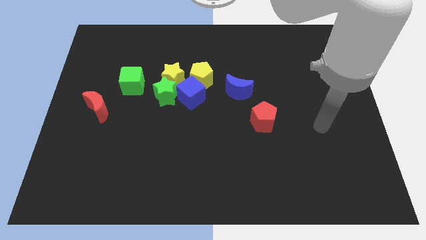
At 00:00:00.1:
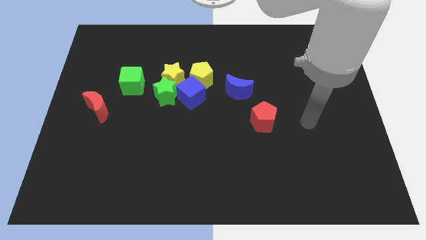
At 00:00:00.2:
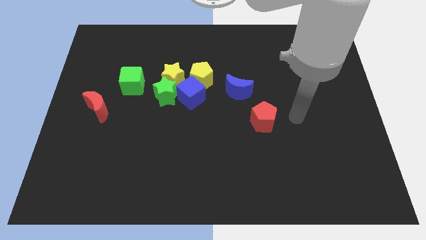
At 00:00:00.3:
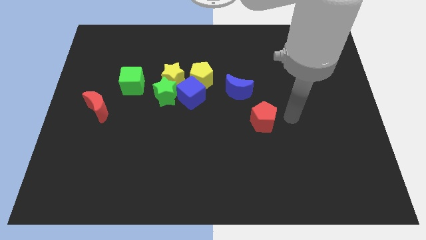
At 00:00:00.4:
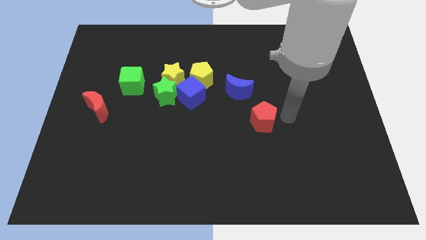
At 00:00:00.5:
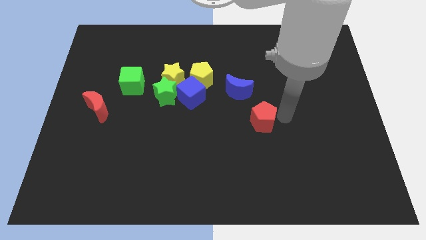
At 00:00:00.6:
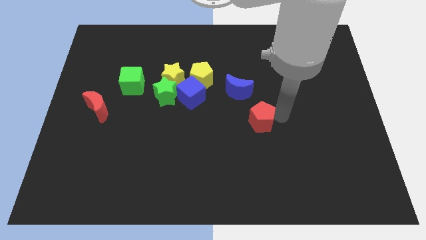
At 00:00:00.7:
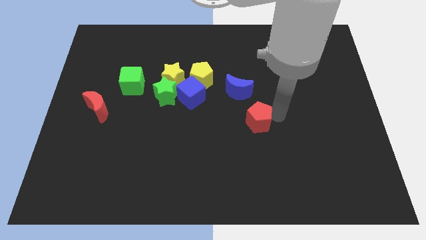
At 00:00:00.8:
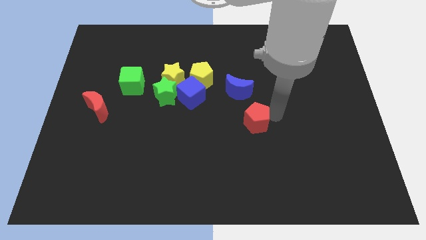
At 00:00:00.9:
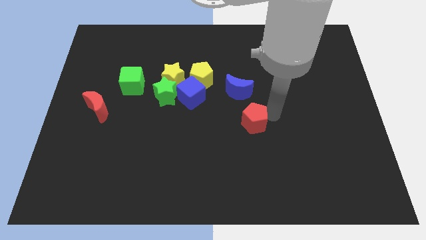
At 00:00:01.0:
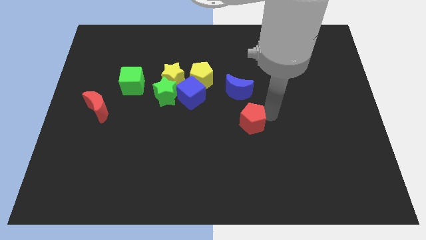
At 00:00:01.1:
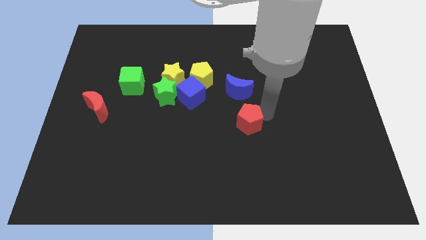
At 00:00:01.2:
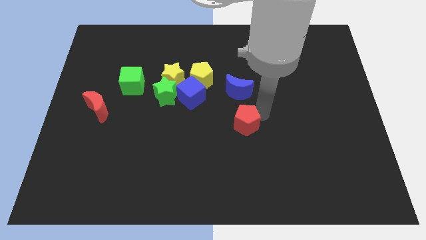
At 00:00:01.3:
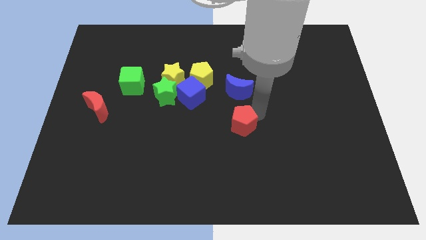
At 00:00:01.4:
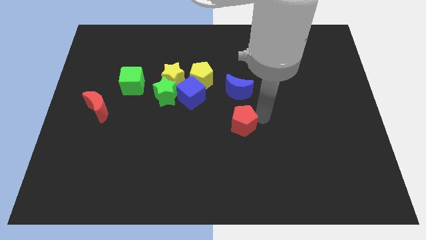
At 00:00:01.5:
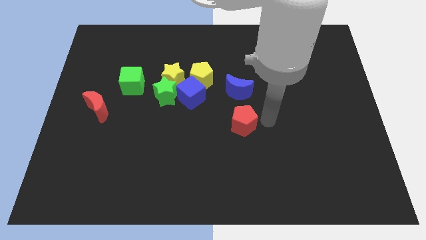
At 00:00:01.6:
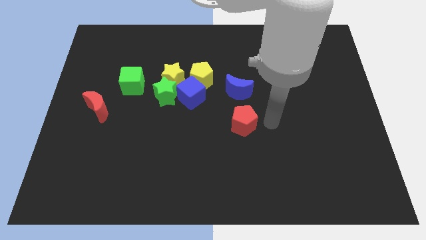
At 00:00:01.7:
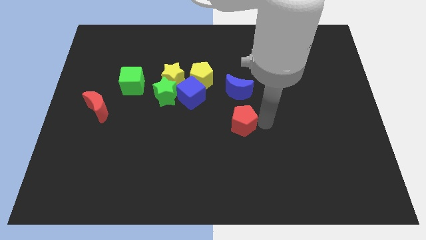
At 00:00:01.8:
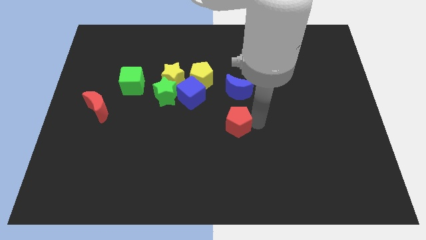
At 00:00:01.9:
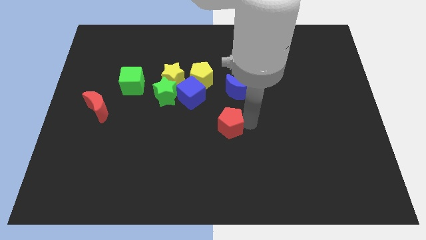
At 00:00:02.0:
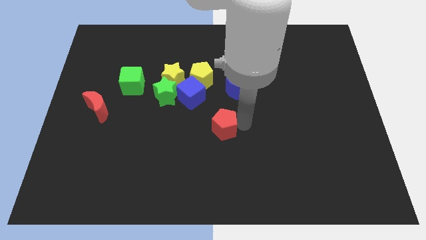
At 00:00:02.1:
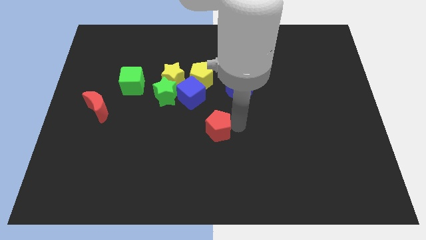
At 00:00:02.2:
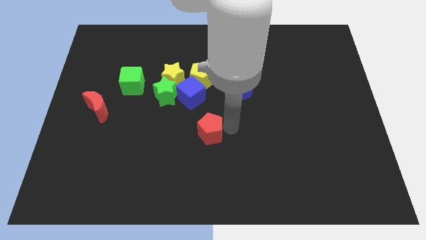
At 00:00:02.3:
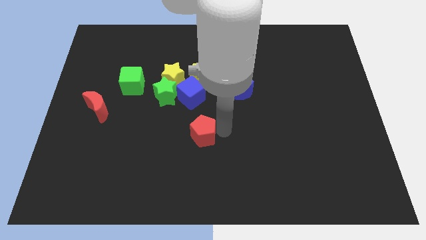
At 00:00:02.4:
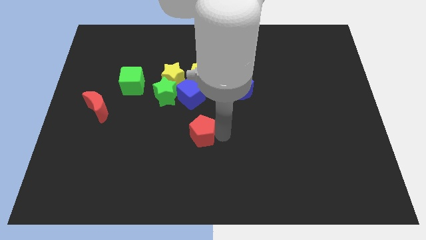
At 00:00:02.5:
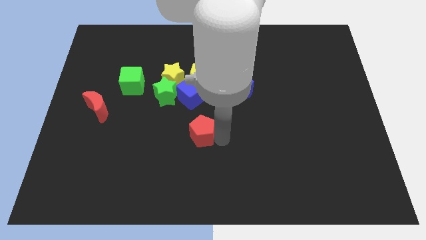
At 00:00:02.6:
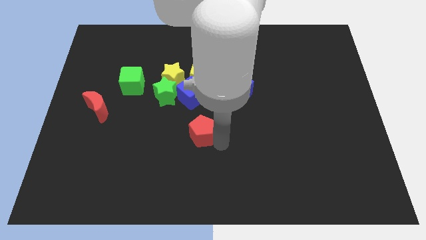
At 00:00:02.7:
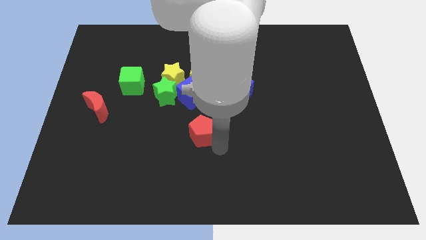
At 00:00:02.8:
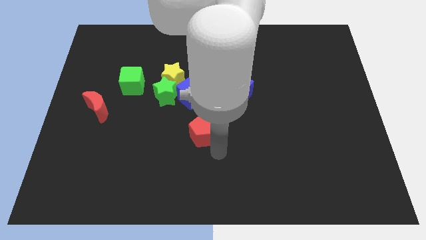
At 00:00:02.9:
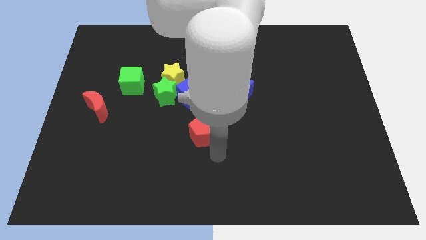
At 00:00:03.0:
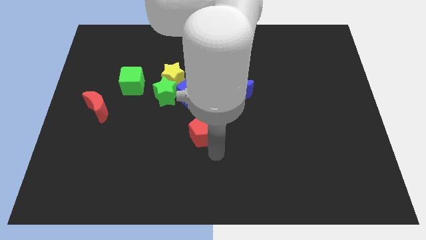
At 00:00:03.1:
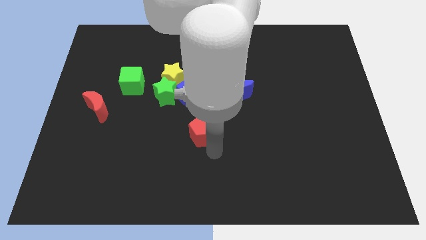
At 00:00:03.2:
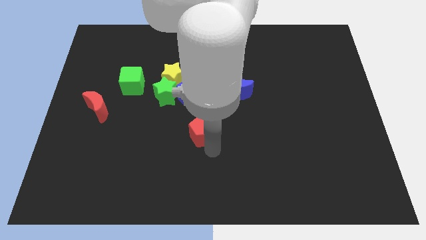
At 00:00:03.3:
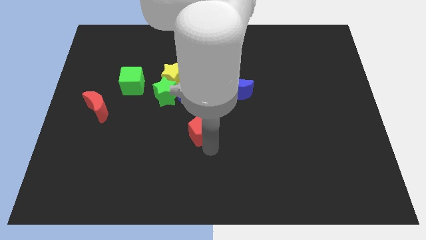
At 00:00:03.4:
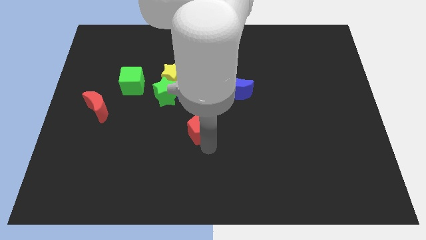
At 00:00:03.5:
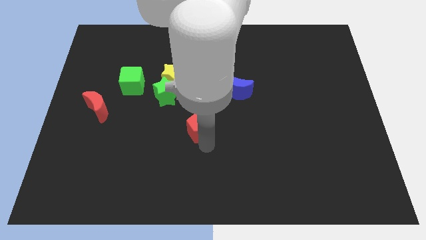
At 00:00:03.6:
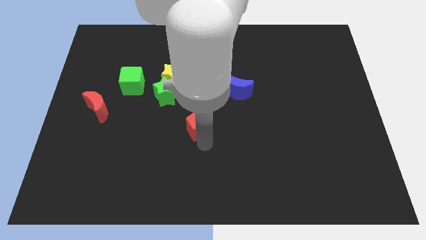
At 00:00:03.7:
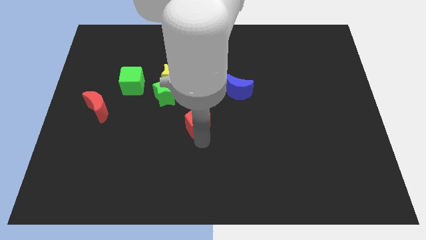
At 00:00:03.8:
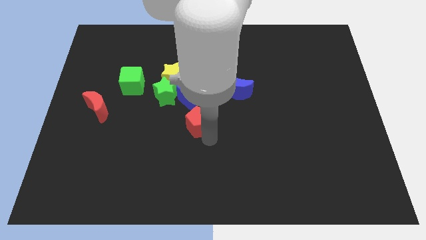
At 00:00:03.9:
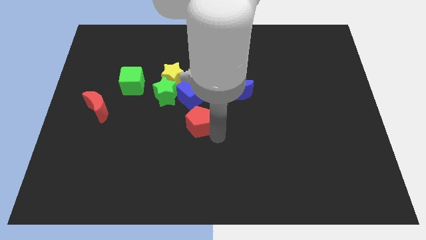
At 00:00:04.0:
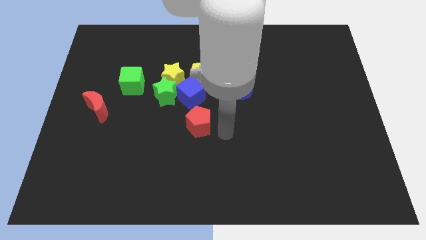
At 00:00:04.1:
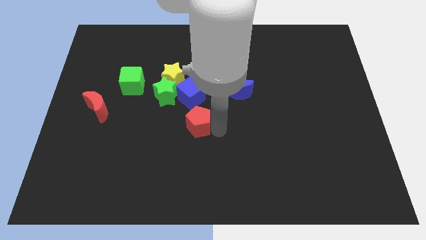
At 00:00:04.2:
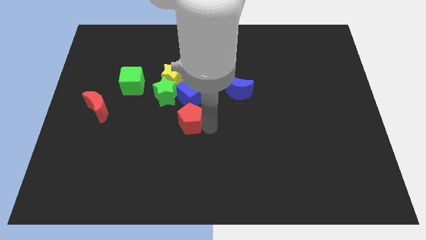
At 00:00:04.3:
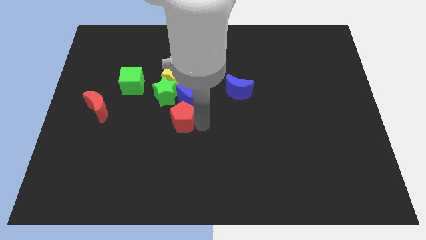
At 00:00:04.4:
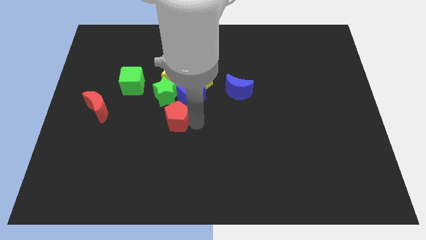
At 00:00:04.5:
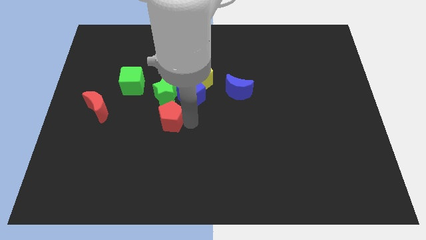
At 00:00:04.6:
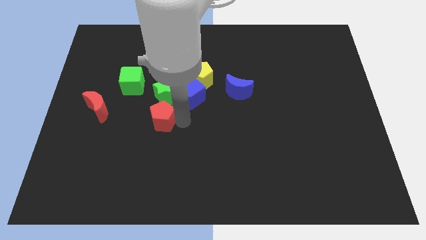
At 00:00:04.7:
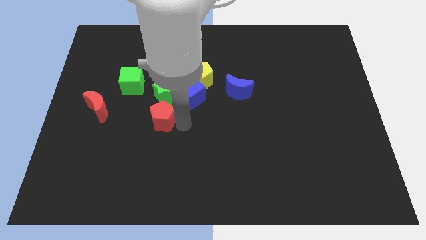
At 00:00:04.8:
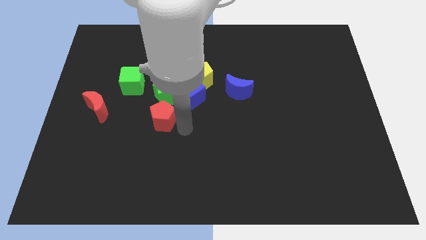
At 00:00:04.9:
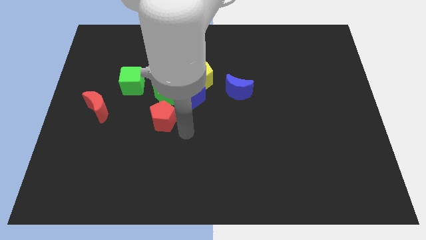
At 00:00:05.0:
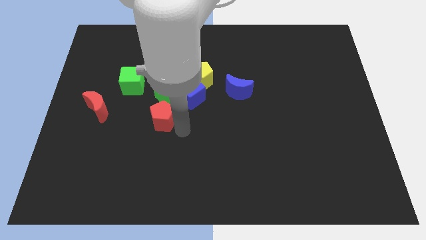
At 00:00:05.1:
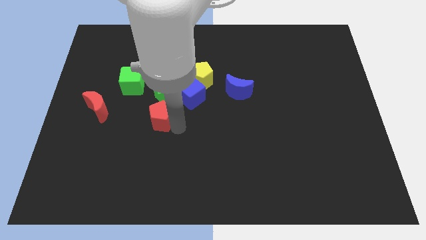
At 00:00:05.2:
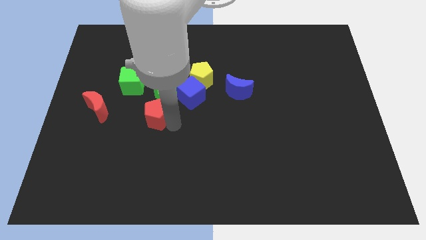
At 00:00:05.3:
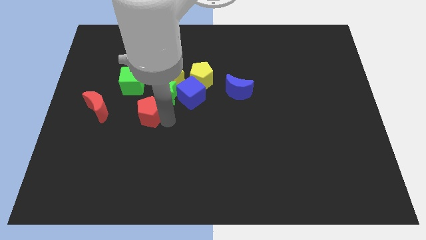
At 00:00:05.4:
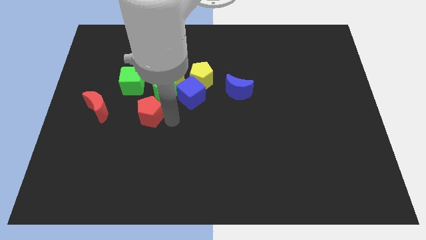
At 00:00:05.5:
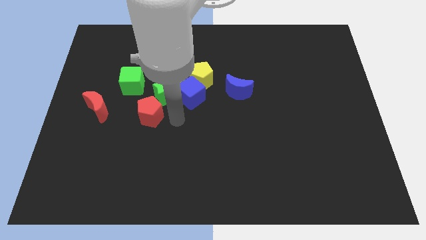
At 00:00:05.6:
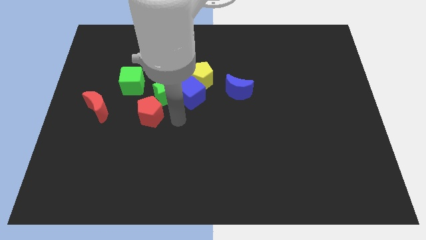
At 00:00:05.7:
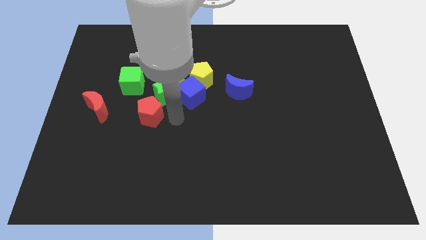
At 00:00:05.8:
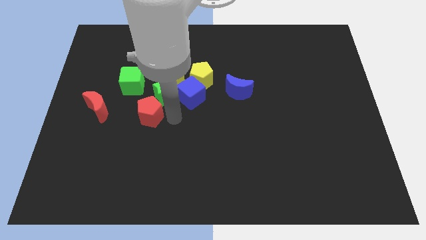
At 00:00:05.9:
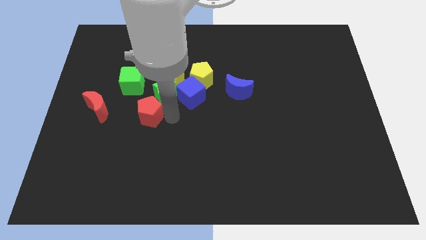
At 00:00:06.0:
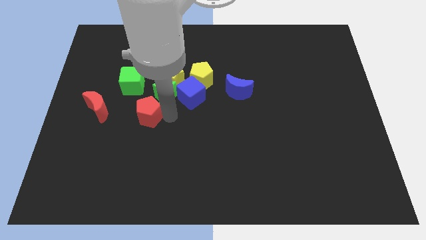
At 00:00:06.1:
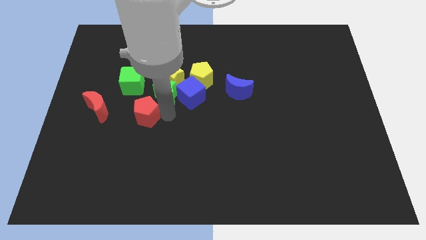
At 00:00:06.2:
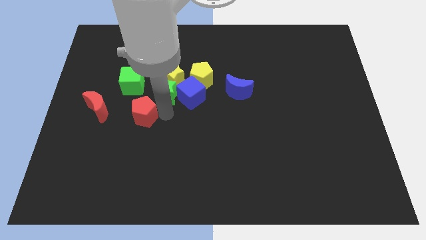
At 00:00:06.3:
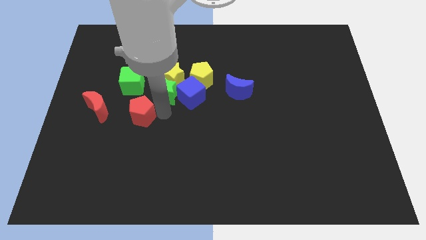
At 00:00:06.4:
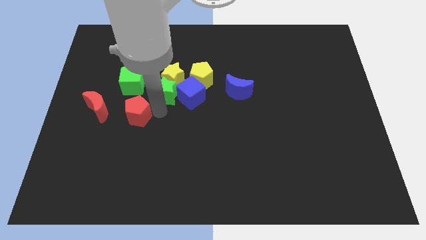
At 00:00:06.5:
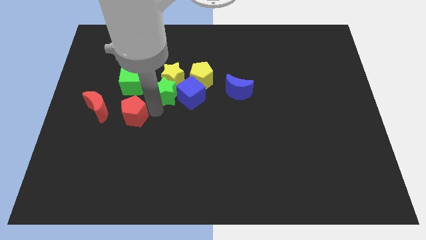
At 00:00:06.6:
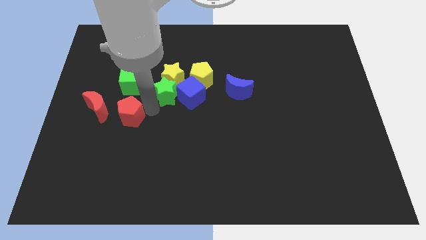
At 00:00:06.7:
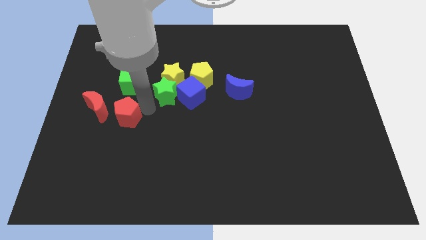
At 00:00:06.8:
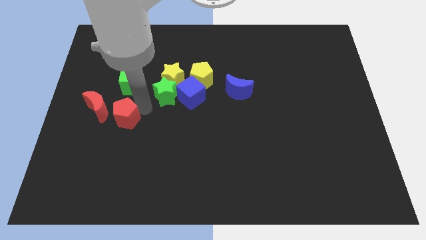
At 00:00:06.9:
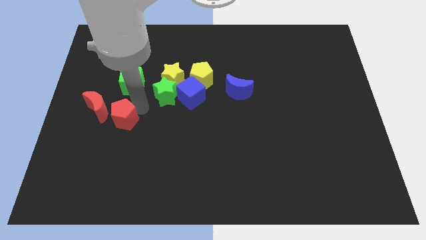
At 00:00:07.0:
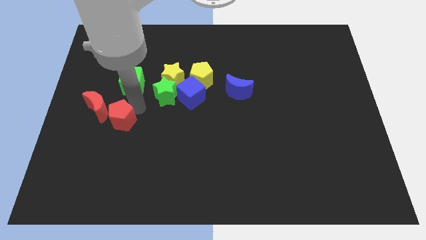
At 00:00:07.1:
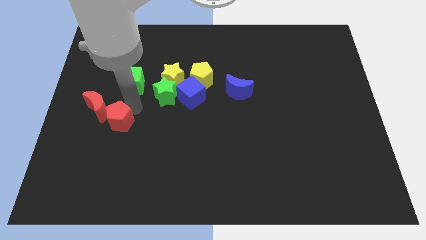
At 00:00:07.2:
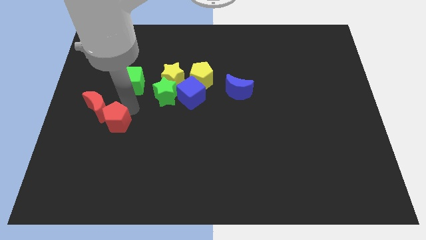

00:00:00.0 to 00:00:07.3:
push the red pentagon towards the red moon

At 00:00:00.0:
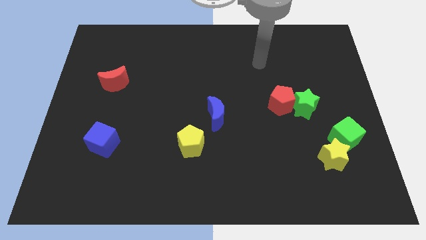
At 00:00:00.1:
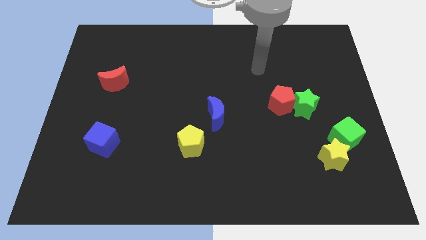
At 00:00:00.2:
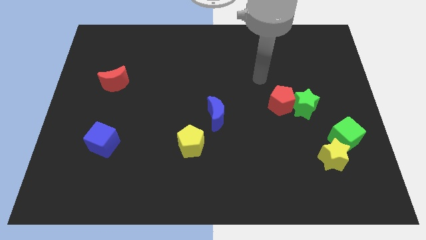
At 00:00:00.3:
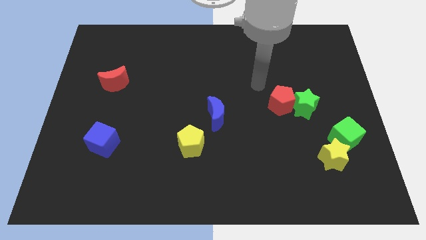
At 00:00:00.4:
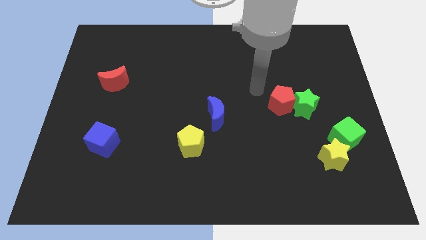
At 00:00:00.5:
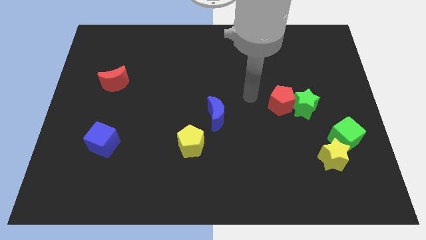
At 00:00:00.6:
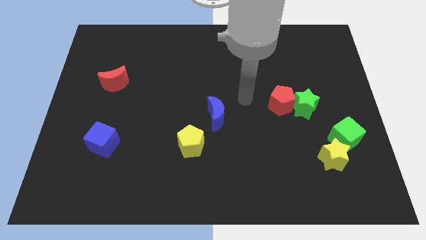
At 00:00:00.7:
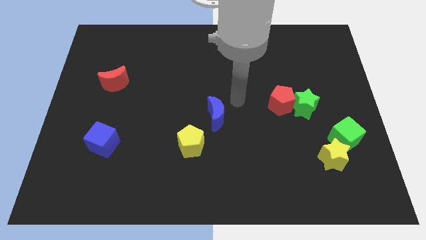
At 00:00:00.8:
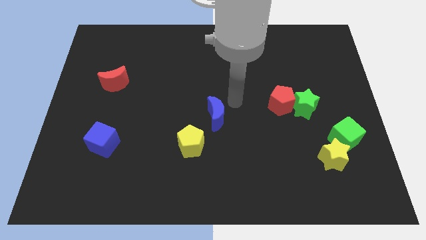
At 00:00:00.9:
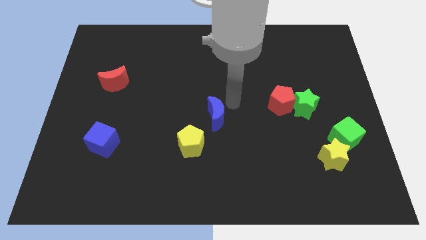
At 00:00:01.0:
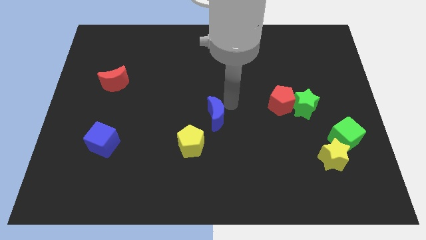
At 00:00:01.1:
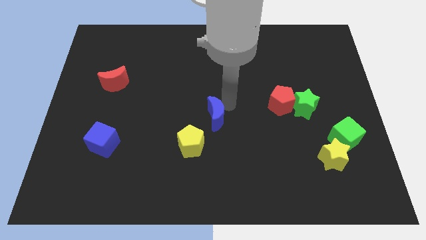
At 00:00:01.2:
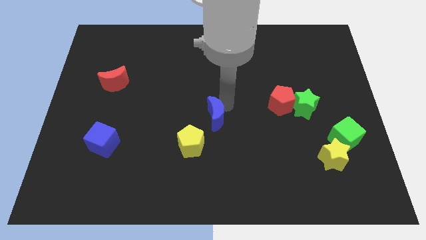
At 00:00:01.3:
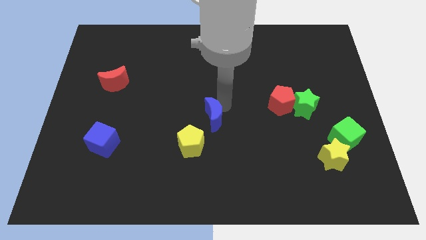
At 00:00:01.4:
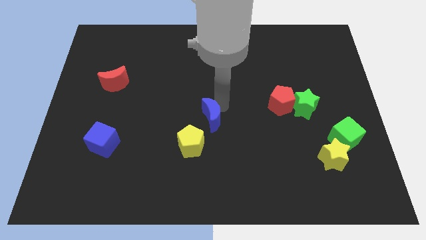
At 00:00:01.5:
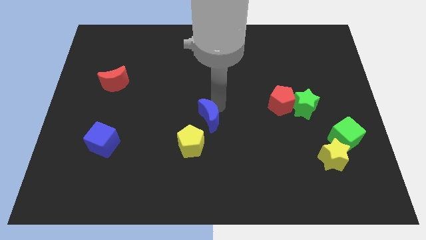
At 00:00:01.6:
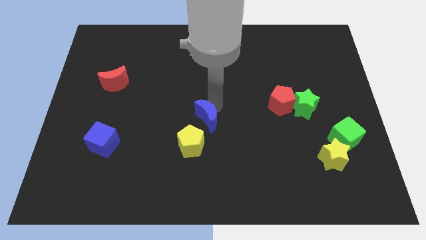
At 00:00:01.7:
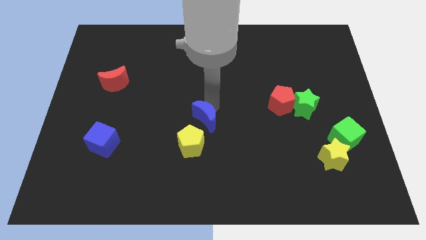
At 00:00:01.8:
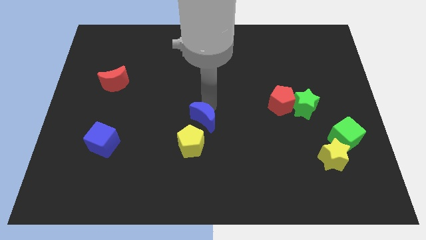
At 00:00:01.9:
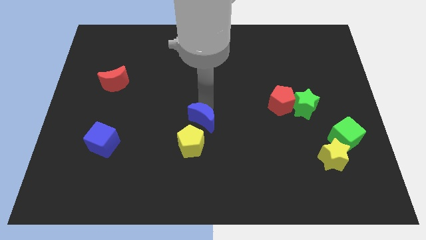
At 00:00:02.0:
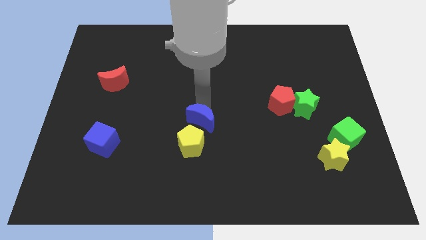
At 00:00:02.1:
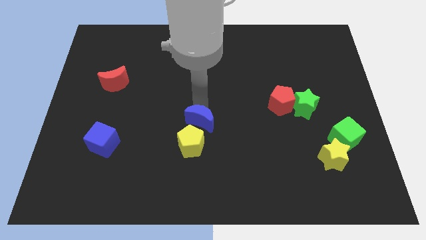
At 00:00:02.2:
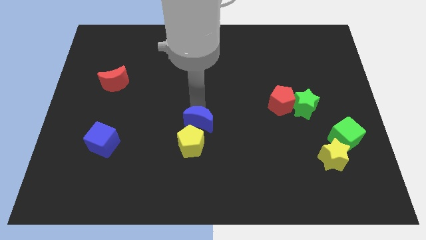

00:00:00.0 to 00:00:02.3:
slide the blue moon close to the yellow pentagon
